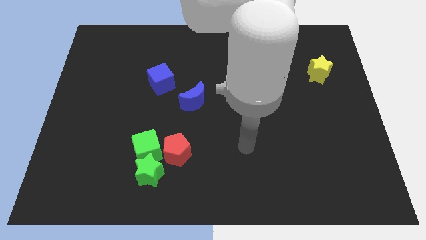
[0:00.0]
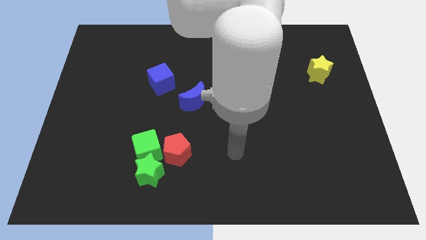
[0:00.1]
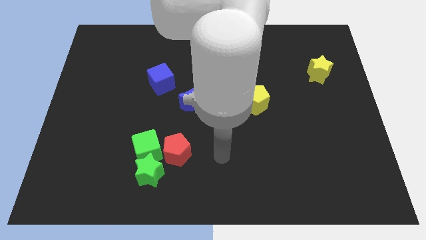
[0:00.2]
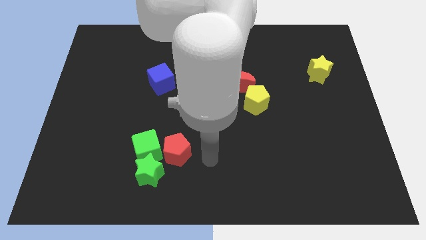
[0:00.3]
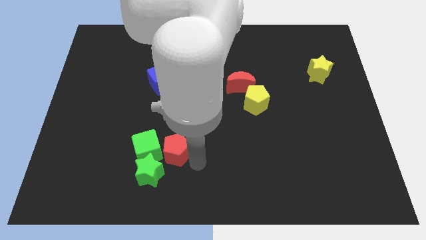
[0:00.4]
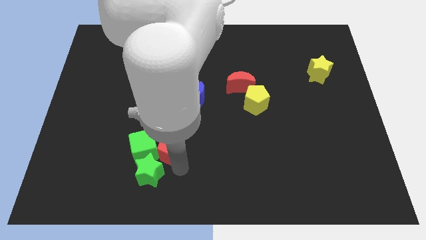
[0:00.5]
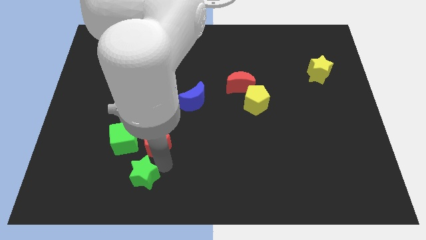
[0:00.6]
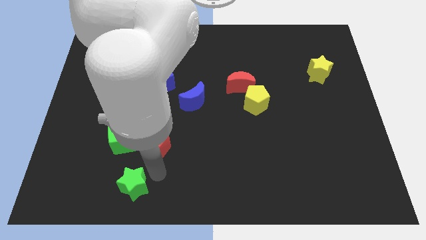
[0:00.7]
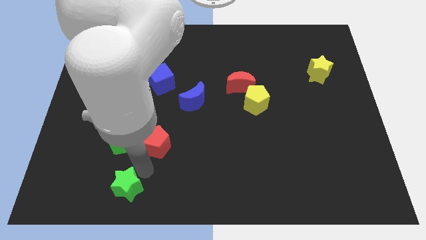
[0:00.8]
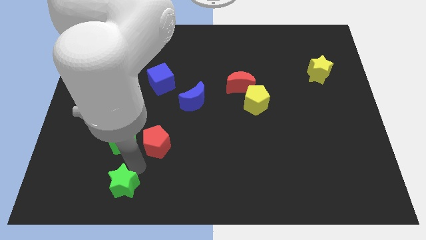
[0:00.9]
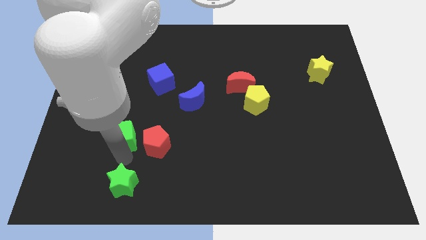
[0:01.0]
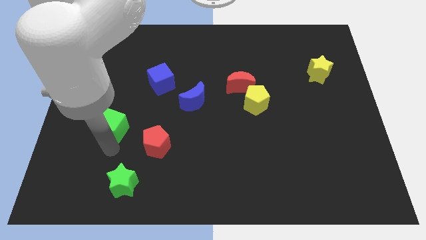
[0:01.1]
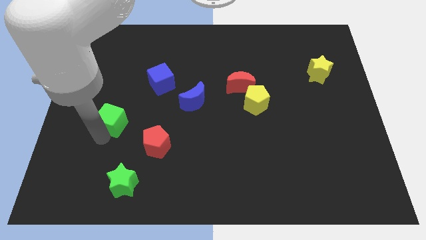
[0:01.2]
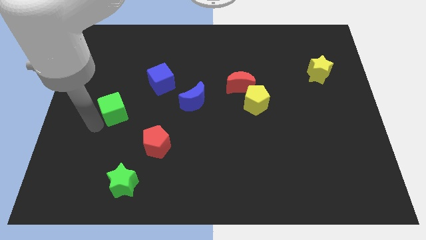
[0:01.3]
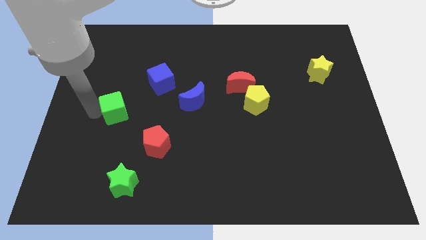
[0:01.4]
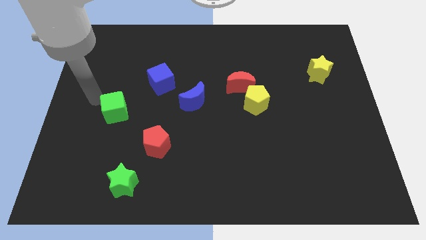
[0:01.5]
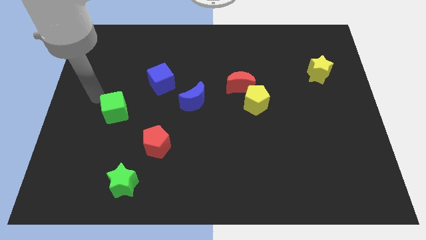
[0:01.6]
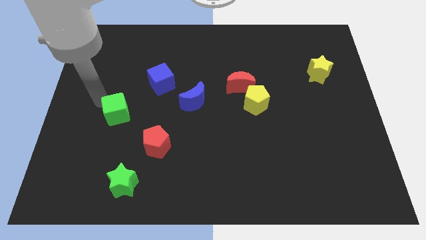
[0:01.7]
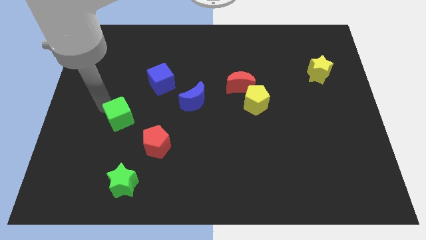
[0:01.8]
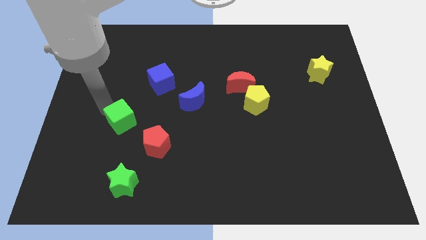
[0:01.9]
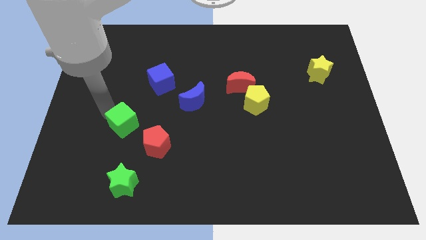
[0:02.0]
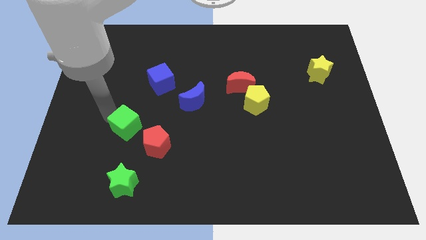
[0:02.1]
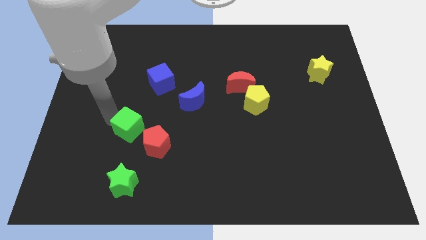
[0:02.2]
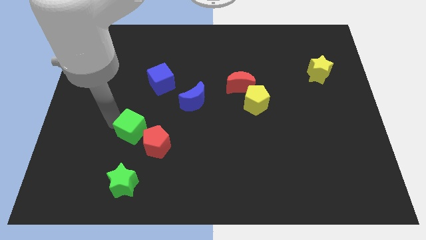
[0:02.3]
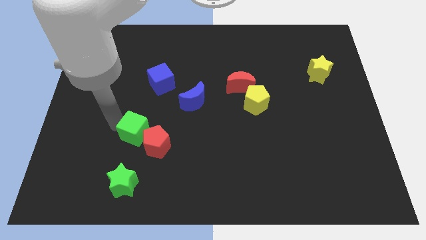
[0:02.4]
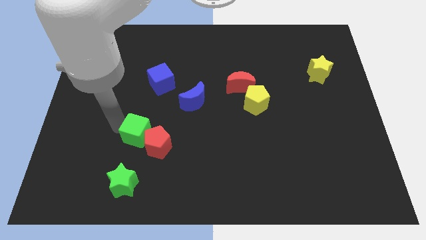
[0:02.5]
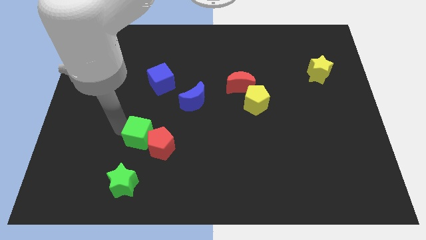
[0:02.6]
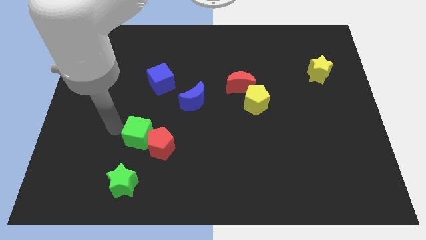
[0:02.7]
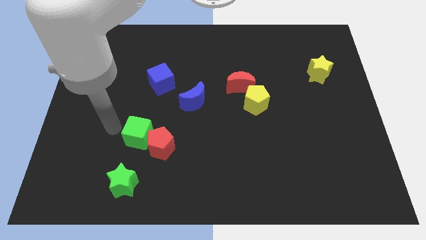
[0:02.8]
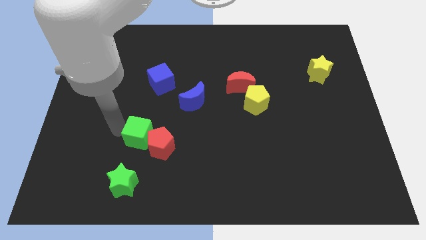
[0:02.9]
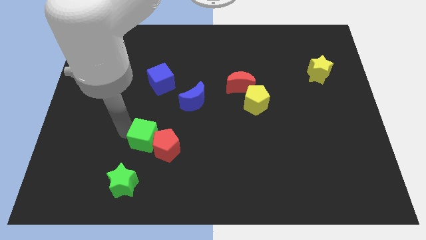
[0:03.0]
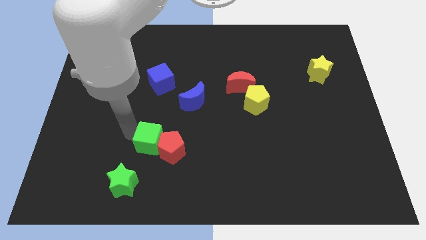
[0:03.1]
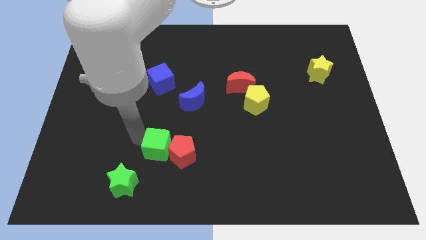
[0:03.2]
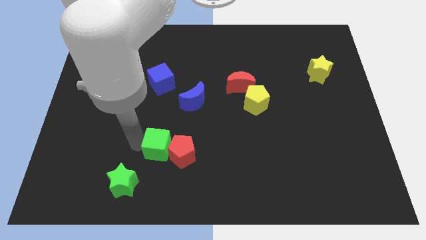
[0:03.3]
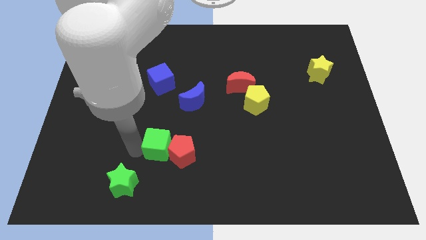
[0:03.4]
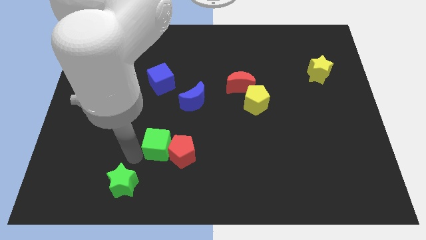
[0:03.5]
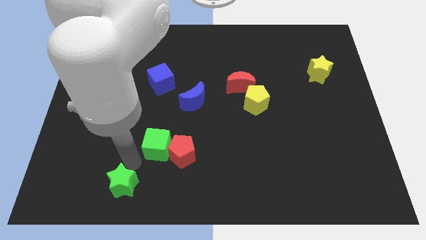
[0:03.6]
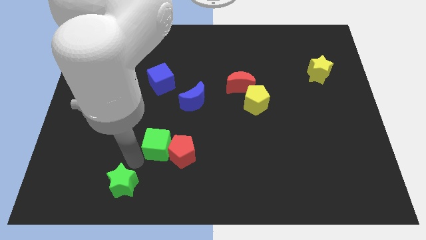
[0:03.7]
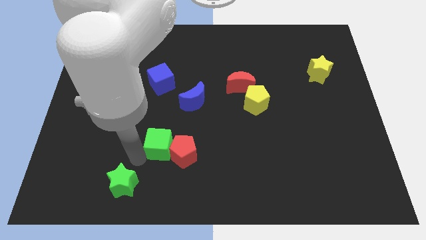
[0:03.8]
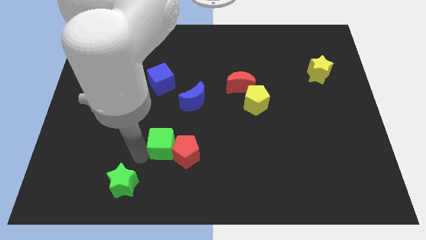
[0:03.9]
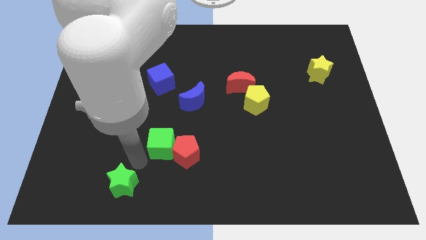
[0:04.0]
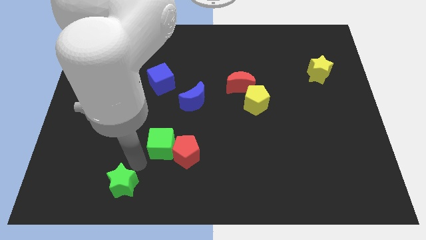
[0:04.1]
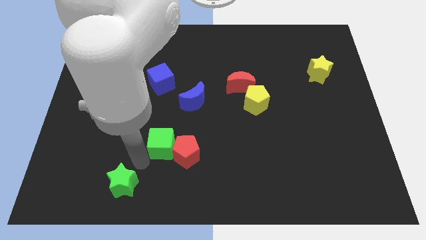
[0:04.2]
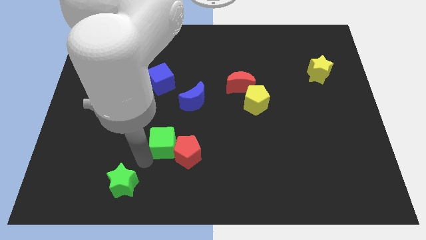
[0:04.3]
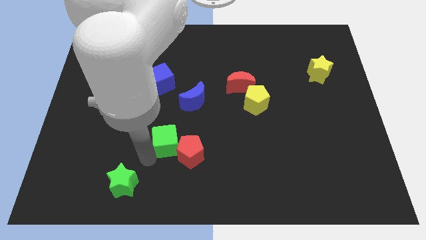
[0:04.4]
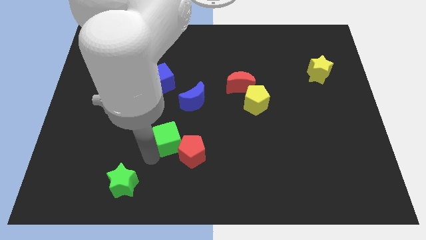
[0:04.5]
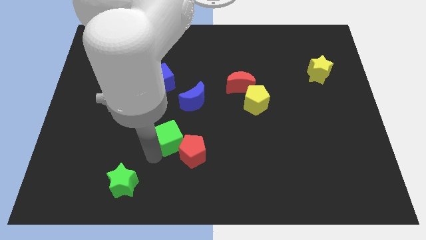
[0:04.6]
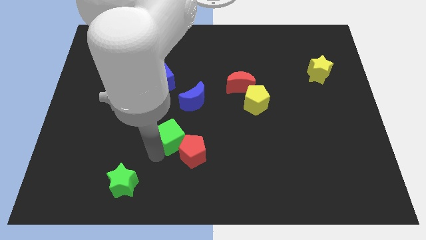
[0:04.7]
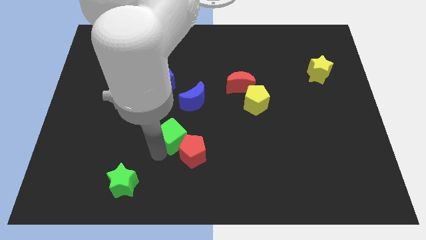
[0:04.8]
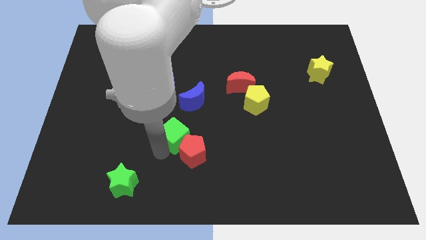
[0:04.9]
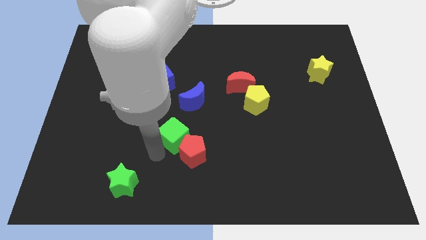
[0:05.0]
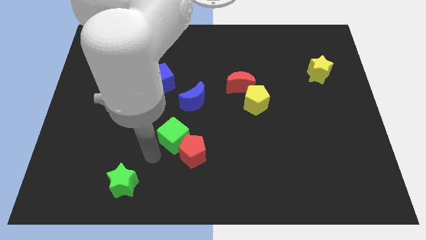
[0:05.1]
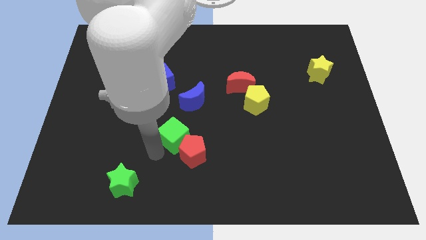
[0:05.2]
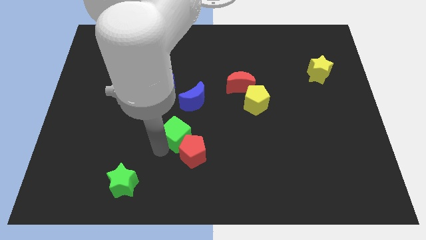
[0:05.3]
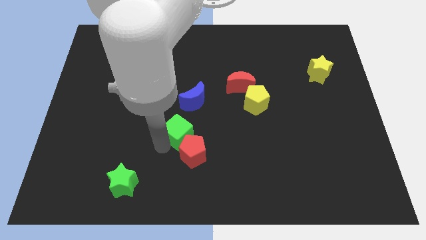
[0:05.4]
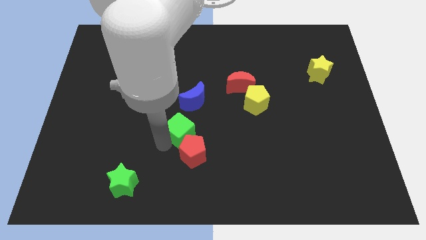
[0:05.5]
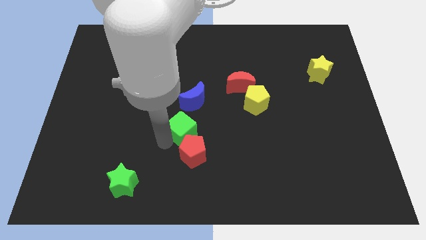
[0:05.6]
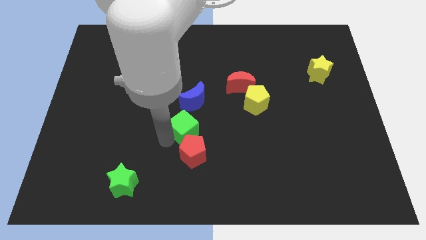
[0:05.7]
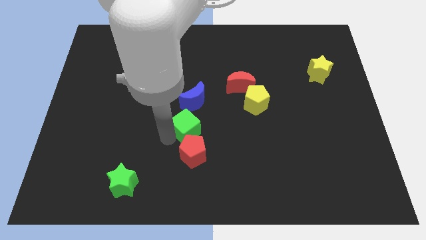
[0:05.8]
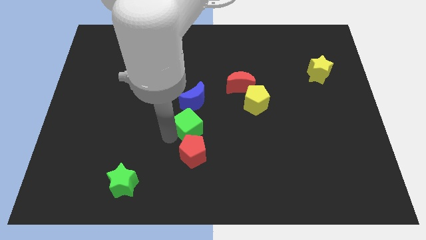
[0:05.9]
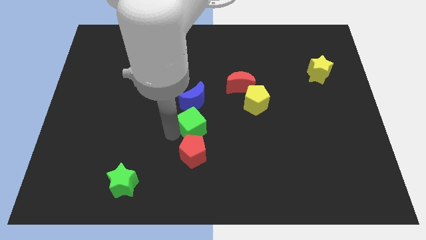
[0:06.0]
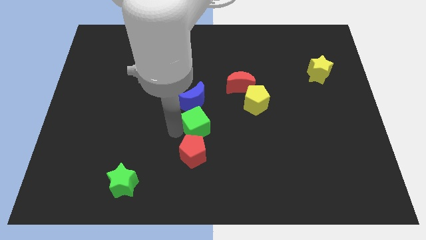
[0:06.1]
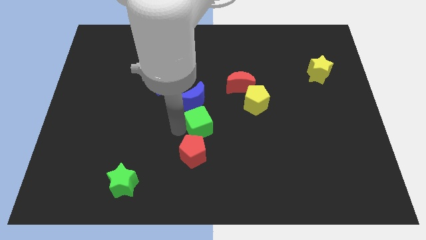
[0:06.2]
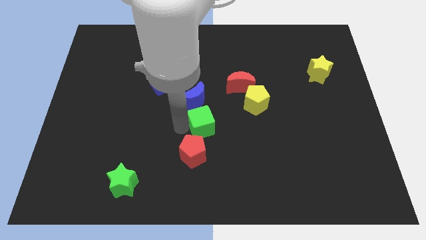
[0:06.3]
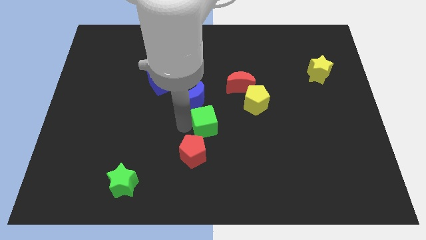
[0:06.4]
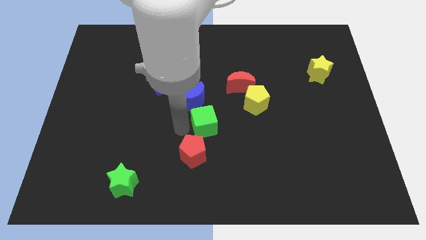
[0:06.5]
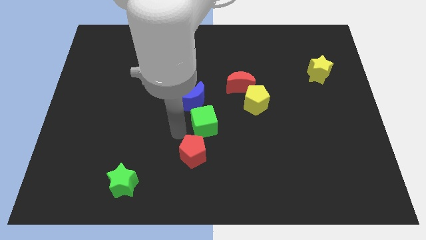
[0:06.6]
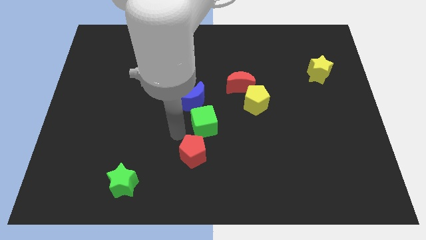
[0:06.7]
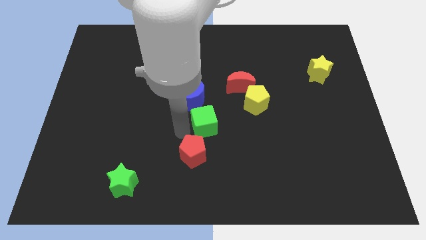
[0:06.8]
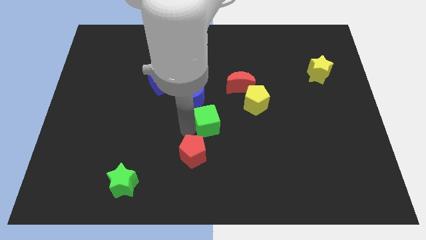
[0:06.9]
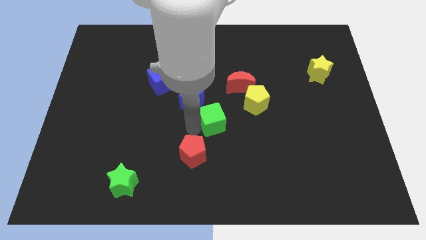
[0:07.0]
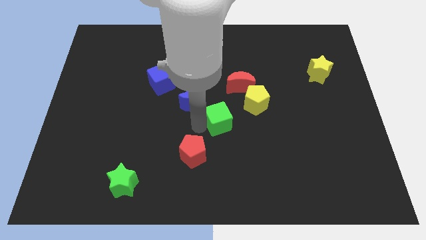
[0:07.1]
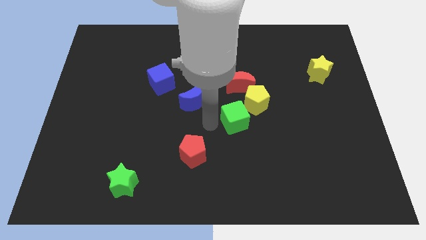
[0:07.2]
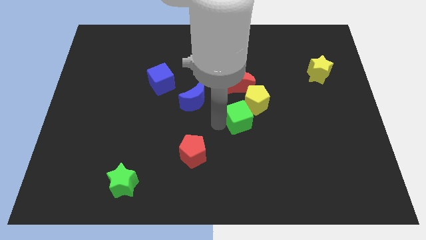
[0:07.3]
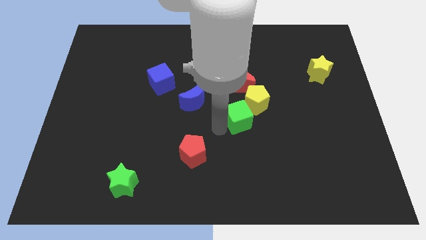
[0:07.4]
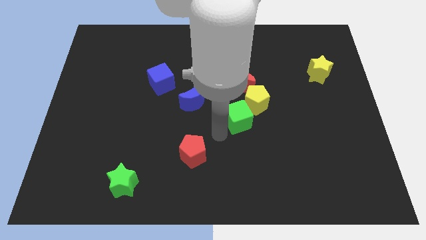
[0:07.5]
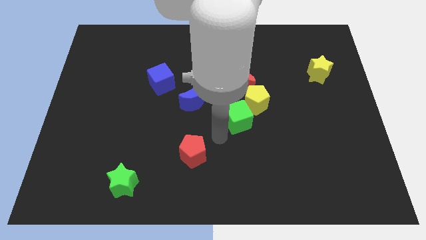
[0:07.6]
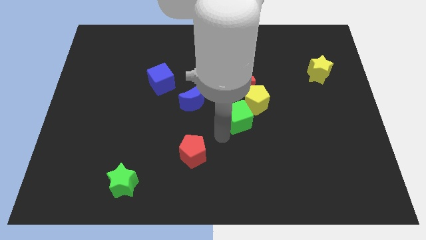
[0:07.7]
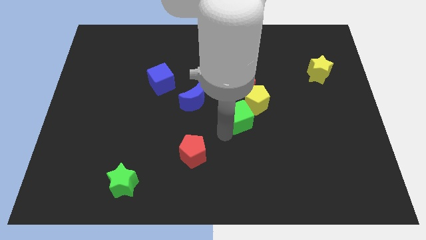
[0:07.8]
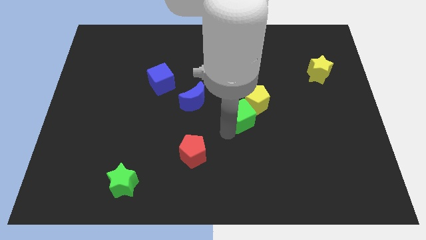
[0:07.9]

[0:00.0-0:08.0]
slide the green cube to the yellow pentagon
